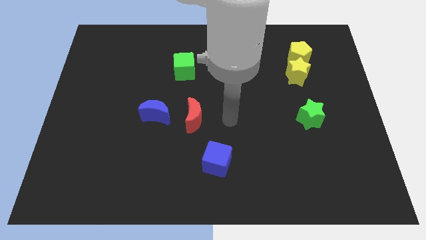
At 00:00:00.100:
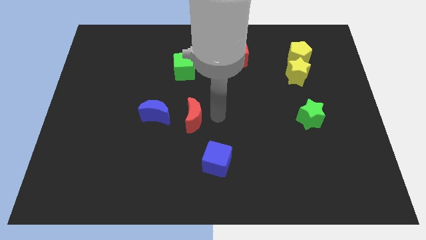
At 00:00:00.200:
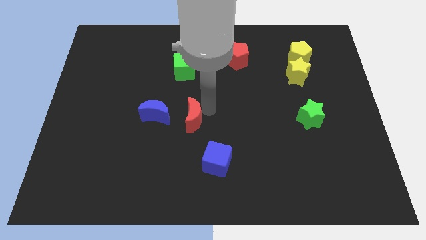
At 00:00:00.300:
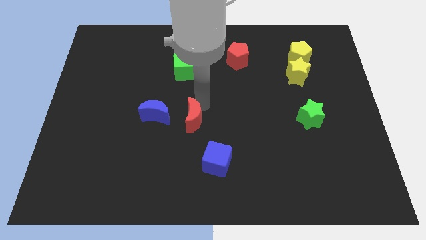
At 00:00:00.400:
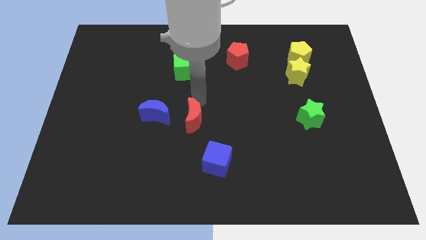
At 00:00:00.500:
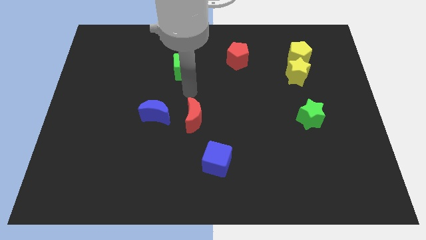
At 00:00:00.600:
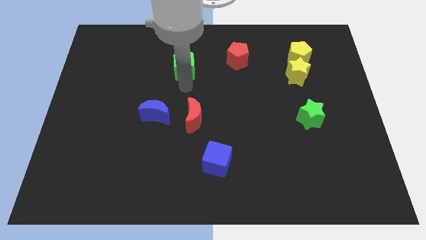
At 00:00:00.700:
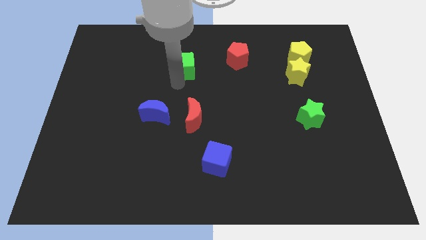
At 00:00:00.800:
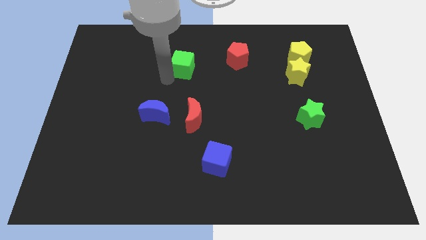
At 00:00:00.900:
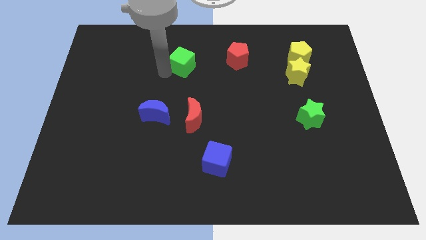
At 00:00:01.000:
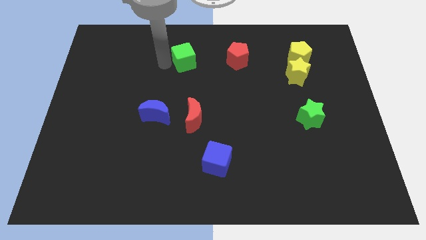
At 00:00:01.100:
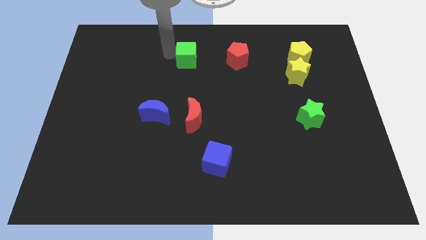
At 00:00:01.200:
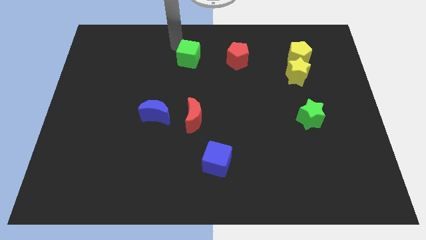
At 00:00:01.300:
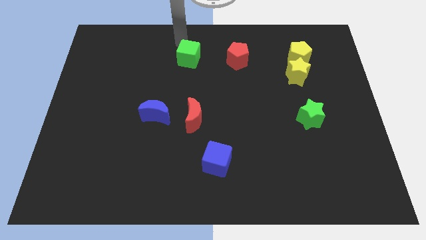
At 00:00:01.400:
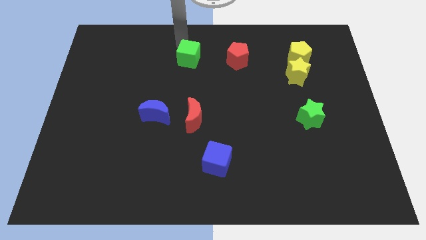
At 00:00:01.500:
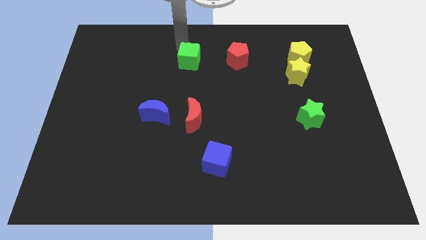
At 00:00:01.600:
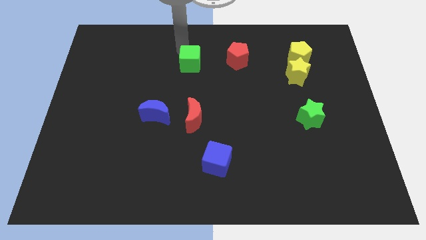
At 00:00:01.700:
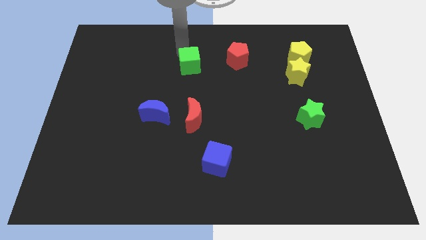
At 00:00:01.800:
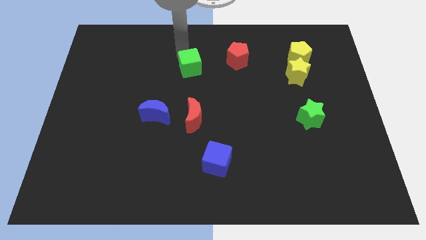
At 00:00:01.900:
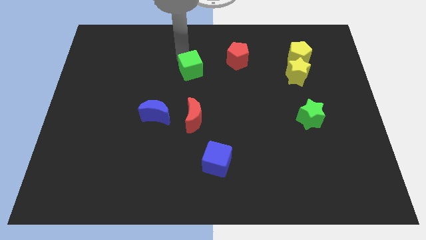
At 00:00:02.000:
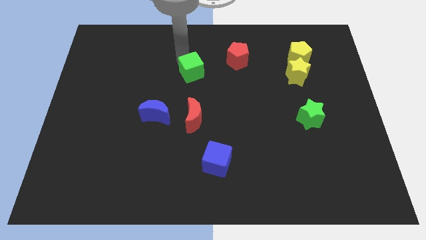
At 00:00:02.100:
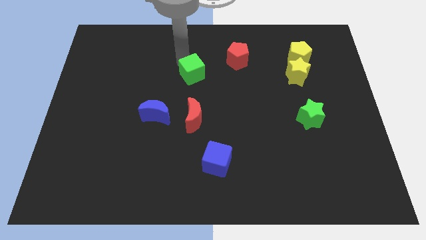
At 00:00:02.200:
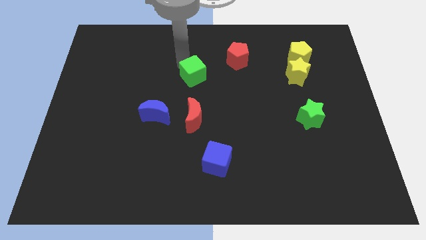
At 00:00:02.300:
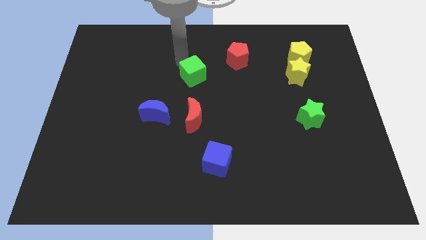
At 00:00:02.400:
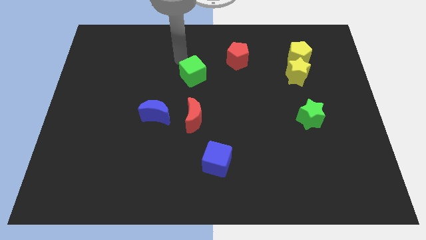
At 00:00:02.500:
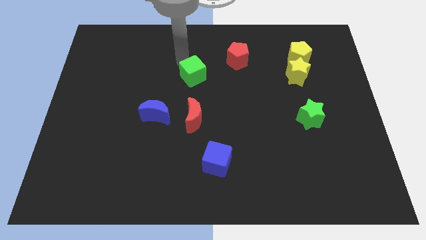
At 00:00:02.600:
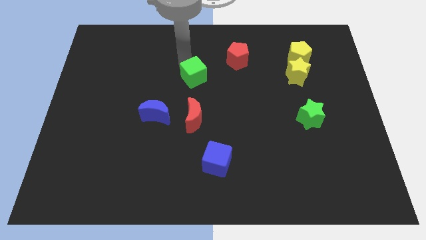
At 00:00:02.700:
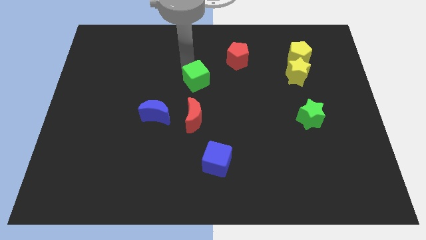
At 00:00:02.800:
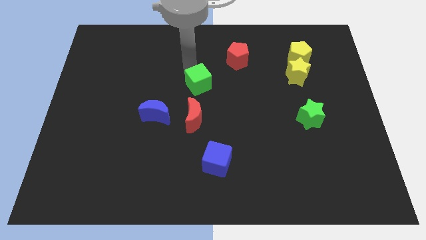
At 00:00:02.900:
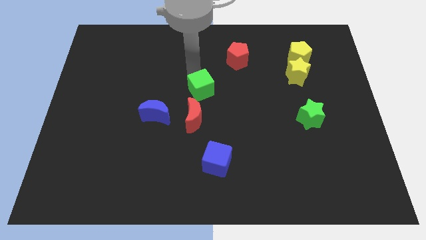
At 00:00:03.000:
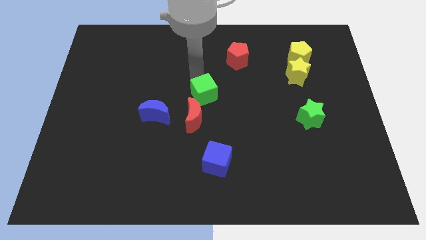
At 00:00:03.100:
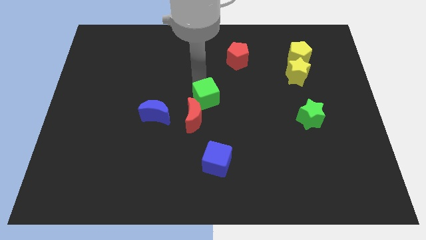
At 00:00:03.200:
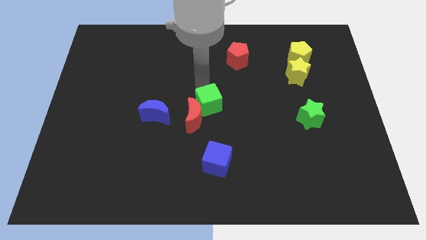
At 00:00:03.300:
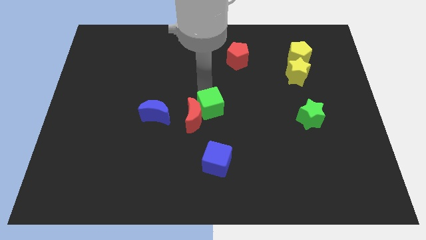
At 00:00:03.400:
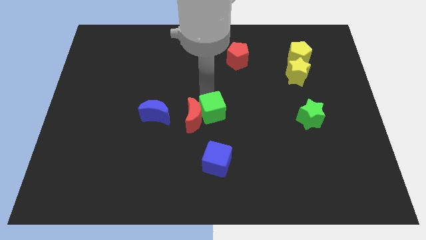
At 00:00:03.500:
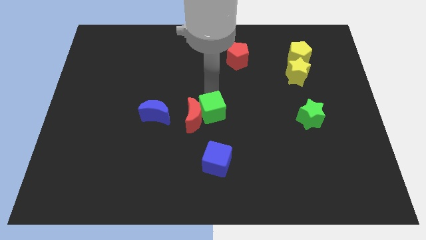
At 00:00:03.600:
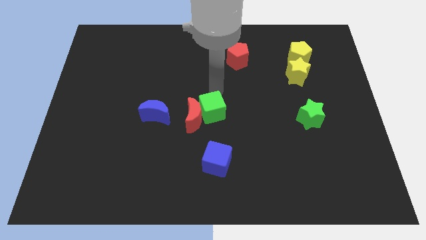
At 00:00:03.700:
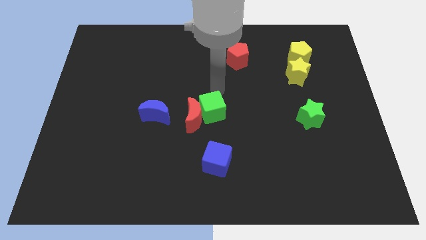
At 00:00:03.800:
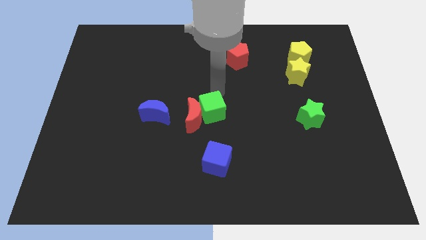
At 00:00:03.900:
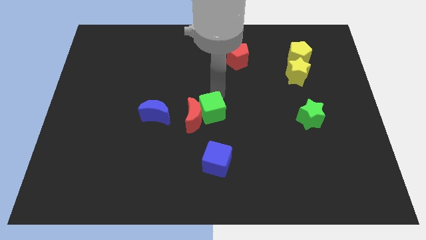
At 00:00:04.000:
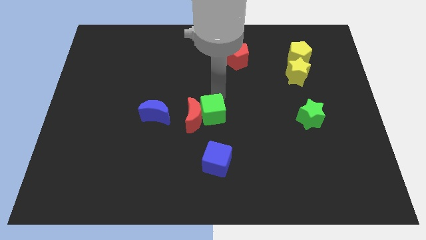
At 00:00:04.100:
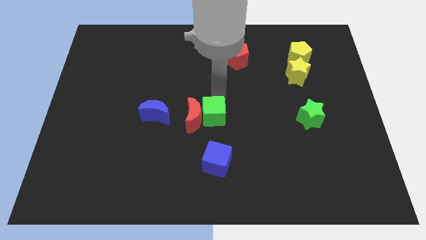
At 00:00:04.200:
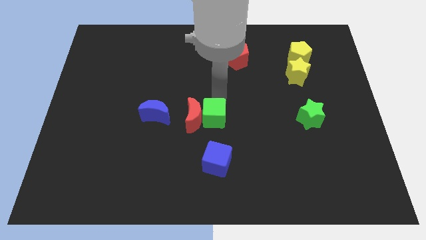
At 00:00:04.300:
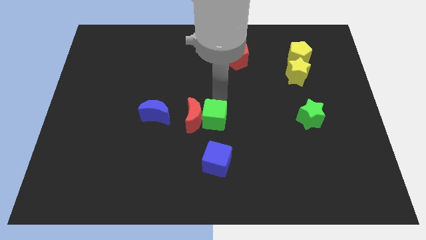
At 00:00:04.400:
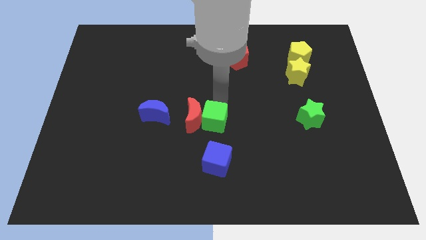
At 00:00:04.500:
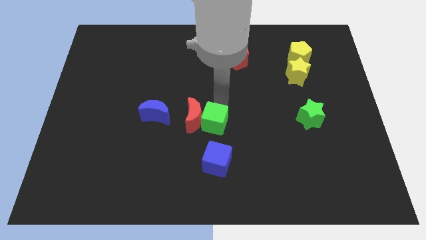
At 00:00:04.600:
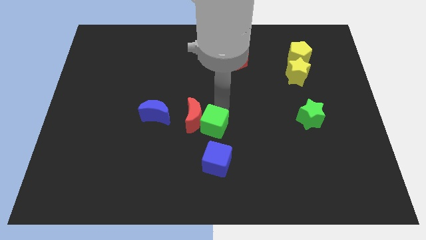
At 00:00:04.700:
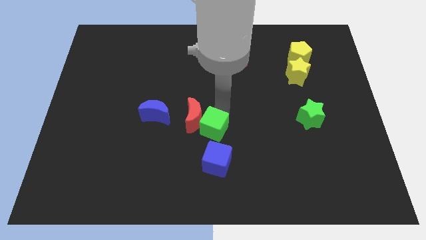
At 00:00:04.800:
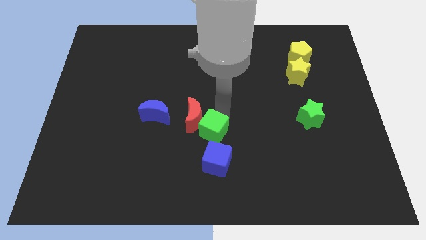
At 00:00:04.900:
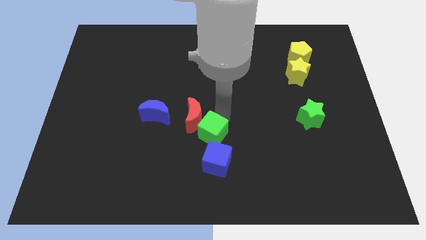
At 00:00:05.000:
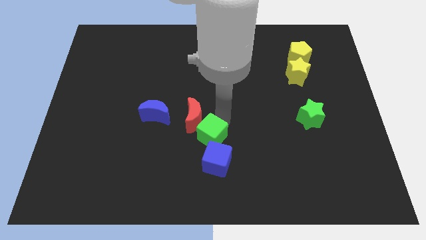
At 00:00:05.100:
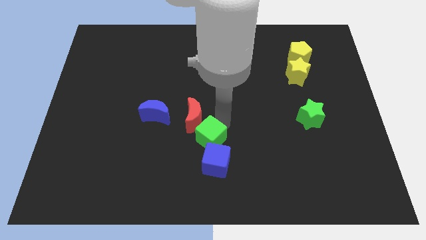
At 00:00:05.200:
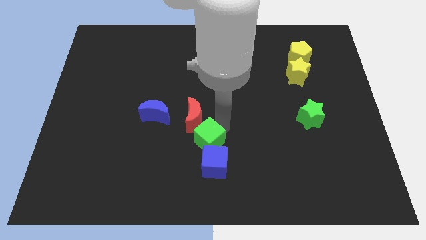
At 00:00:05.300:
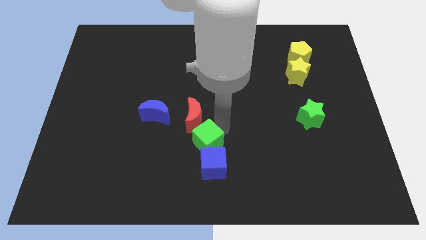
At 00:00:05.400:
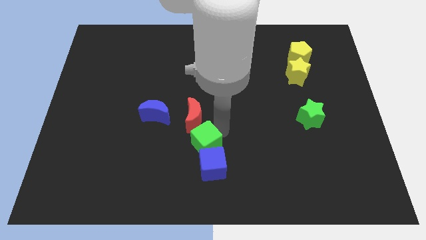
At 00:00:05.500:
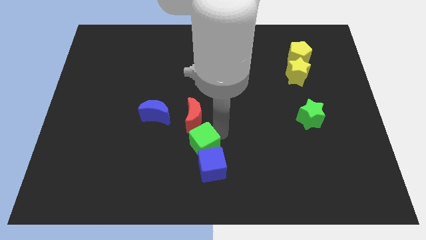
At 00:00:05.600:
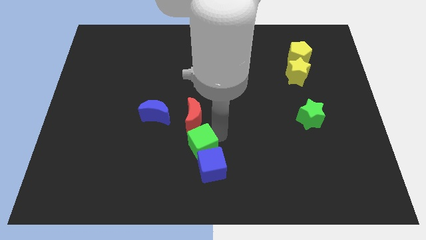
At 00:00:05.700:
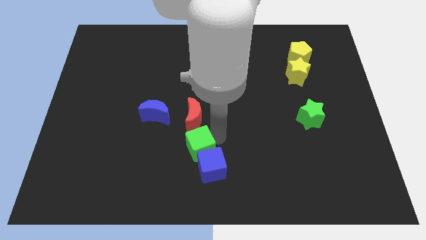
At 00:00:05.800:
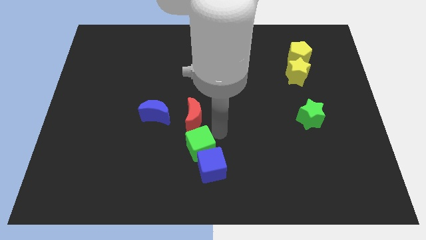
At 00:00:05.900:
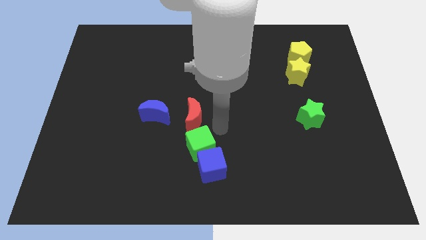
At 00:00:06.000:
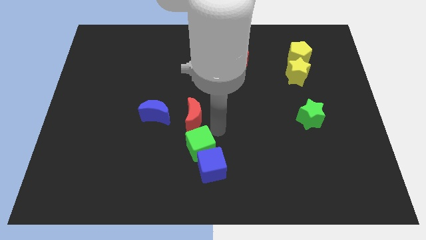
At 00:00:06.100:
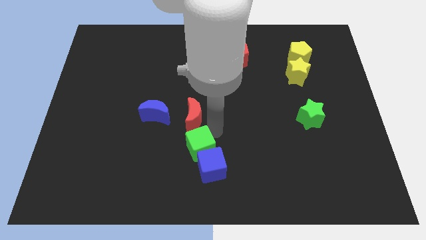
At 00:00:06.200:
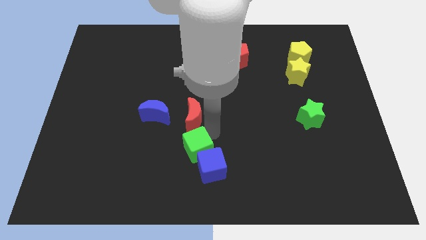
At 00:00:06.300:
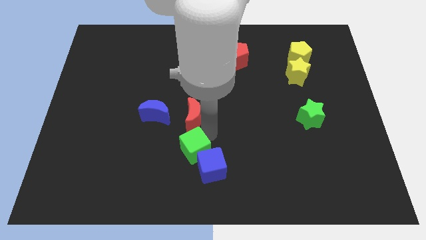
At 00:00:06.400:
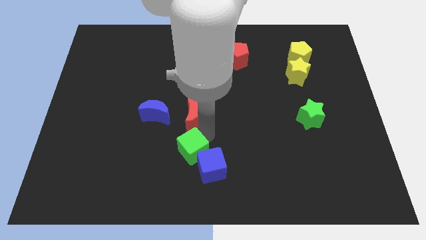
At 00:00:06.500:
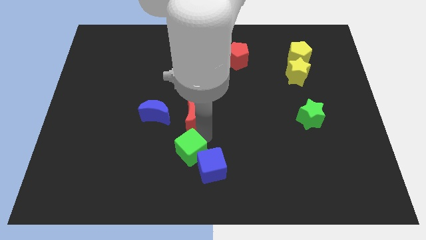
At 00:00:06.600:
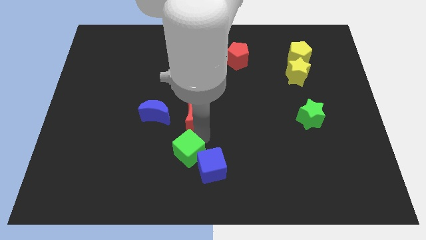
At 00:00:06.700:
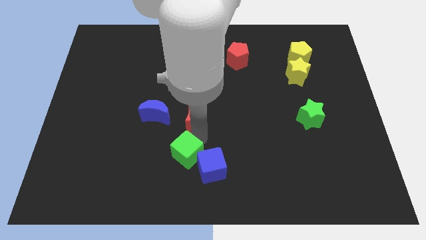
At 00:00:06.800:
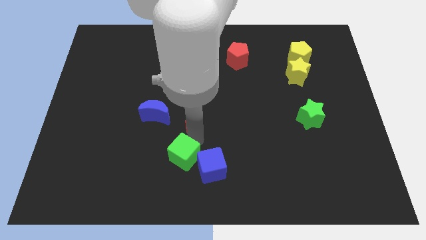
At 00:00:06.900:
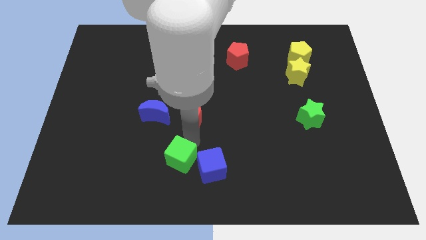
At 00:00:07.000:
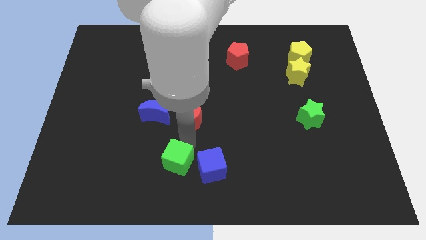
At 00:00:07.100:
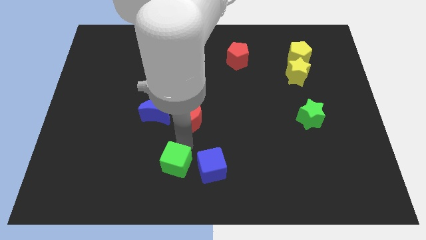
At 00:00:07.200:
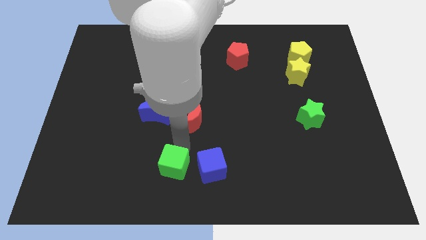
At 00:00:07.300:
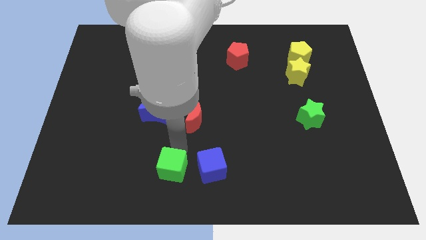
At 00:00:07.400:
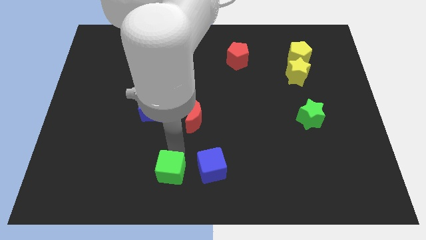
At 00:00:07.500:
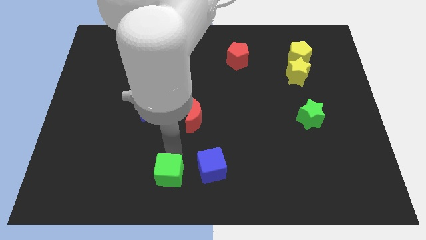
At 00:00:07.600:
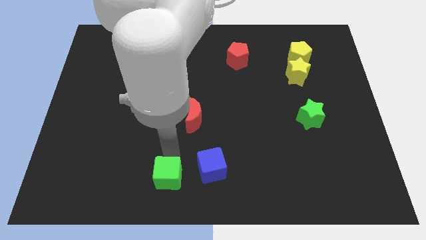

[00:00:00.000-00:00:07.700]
push the green cube to the bottom left of the blue cube
